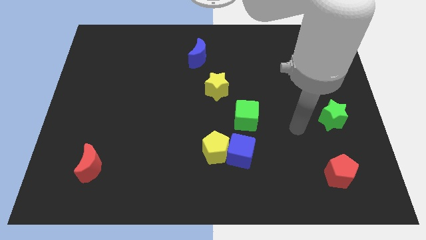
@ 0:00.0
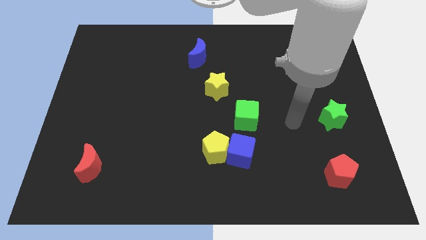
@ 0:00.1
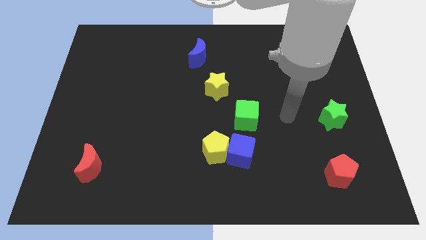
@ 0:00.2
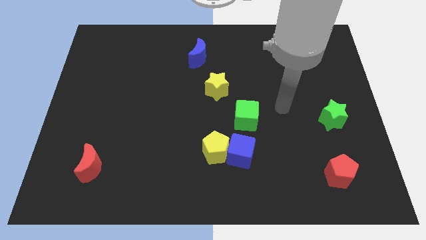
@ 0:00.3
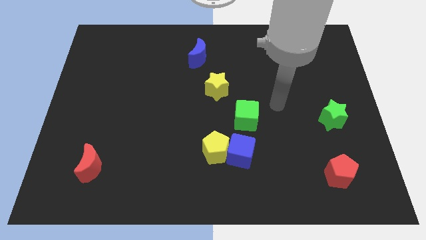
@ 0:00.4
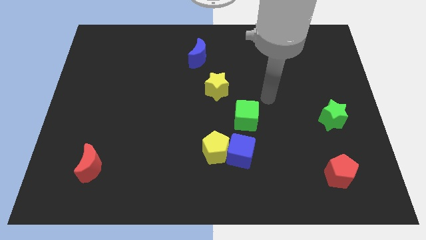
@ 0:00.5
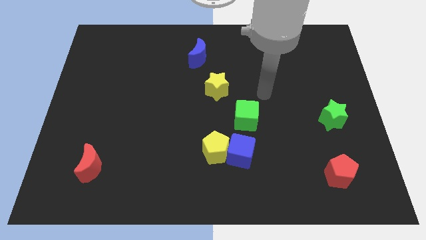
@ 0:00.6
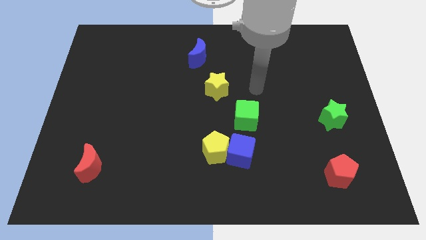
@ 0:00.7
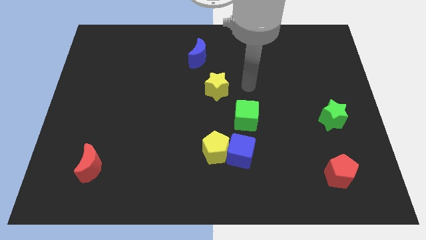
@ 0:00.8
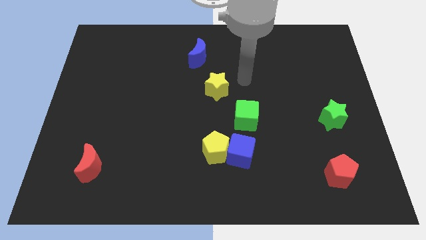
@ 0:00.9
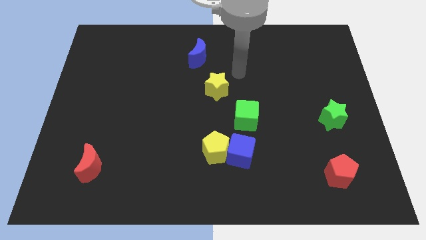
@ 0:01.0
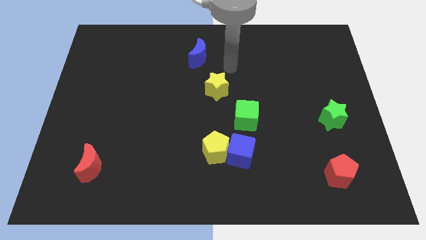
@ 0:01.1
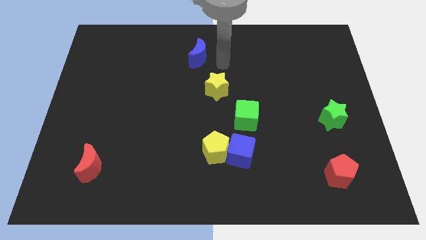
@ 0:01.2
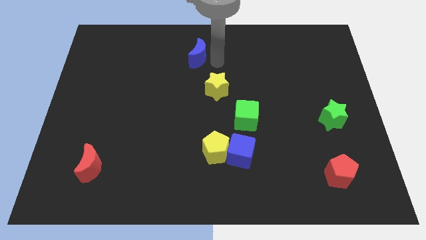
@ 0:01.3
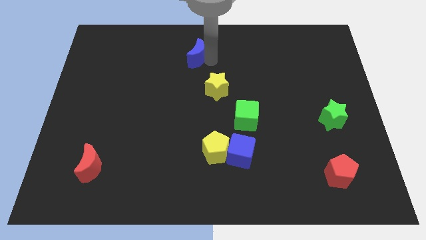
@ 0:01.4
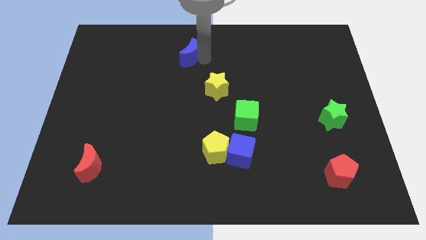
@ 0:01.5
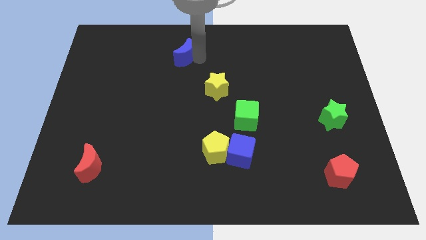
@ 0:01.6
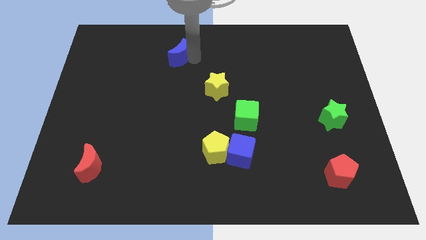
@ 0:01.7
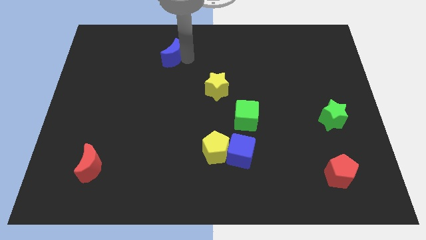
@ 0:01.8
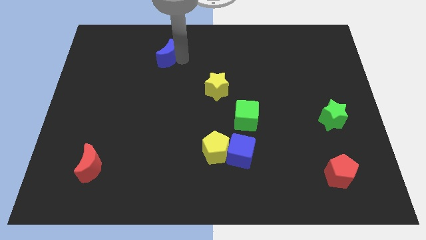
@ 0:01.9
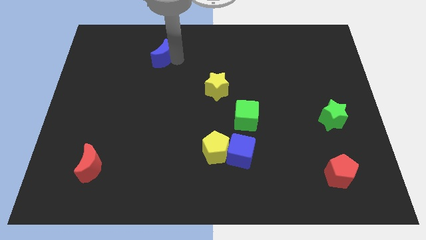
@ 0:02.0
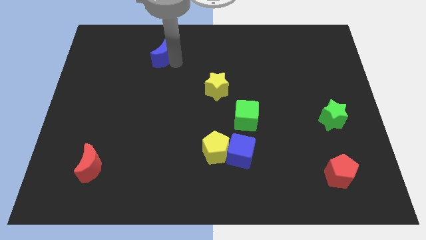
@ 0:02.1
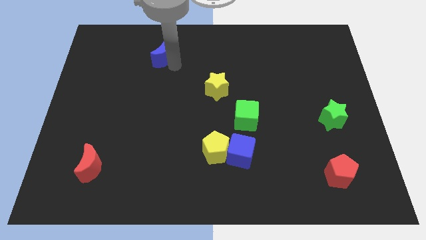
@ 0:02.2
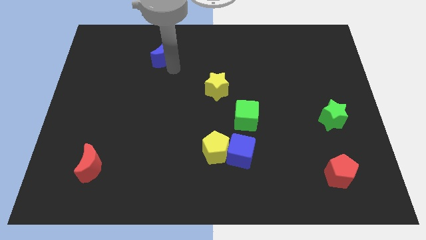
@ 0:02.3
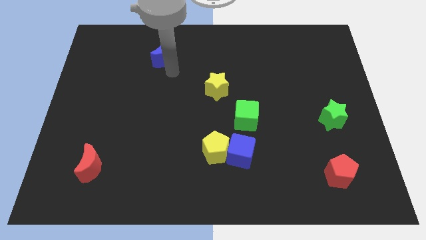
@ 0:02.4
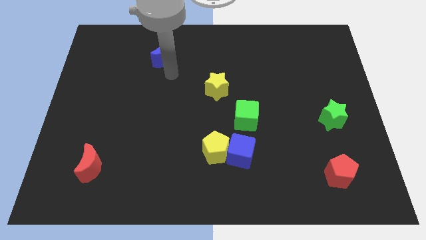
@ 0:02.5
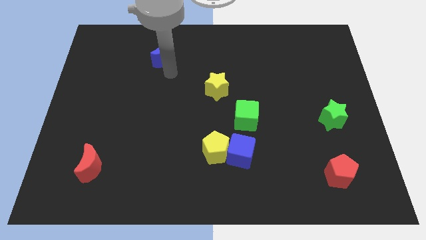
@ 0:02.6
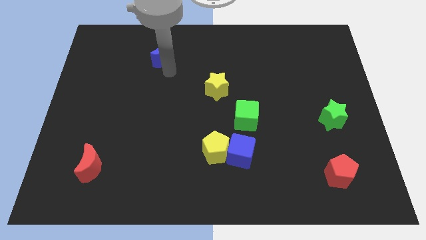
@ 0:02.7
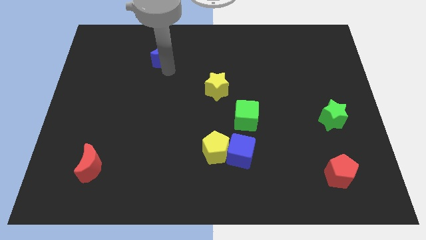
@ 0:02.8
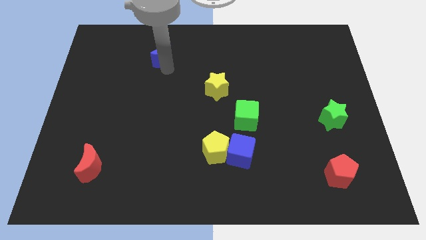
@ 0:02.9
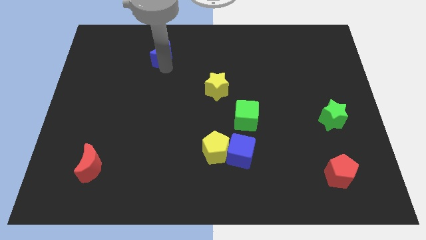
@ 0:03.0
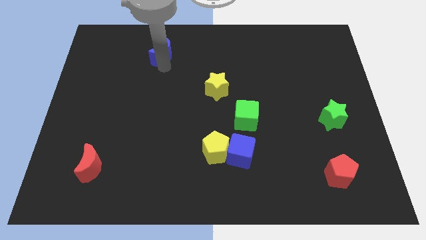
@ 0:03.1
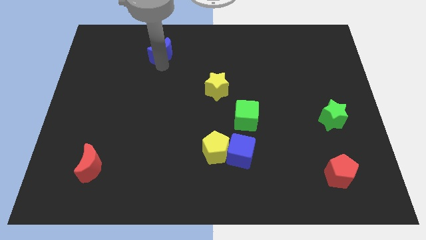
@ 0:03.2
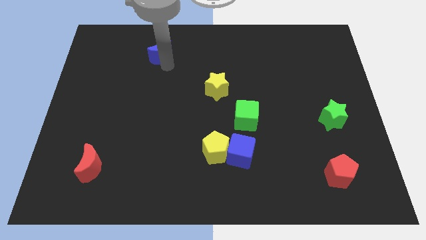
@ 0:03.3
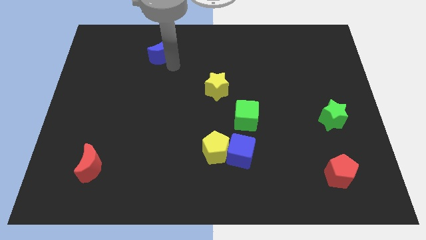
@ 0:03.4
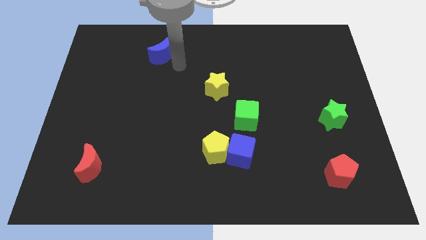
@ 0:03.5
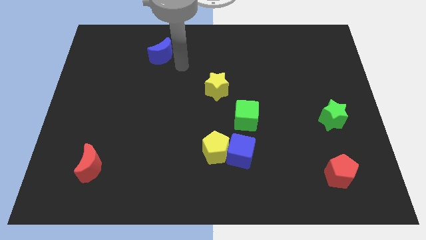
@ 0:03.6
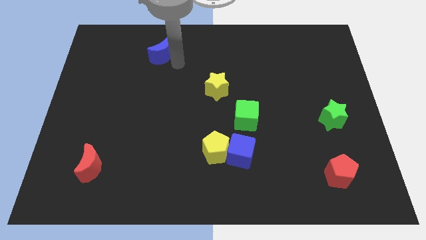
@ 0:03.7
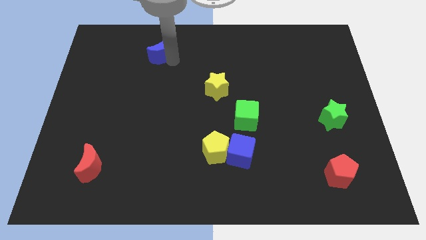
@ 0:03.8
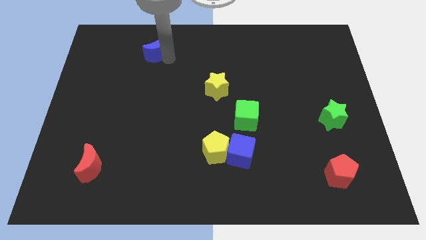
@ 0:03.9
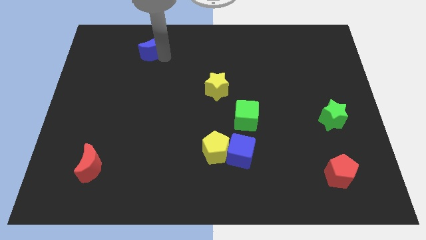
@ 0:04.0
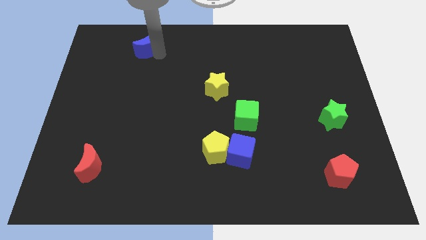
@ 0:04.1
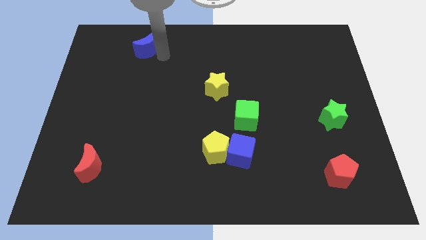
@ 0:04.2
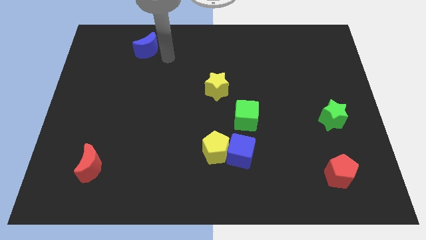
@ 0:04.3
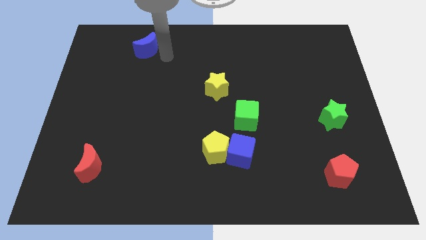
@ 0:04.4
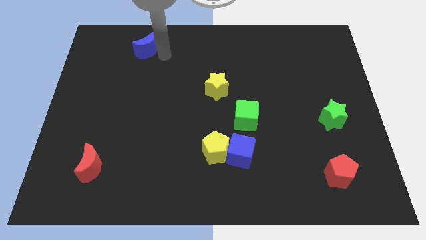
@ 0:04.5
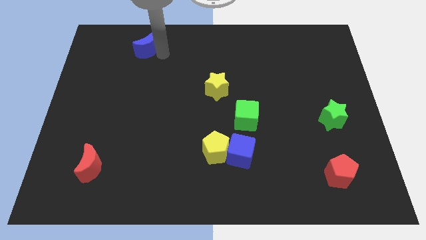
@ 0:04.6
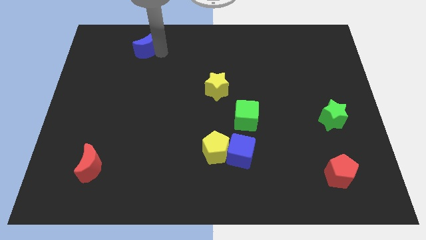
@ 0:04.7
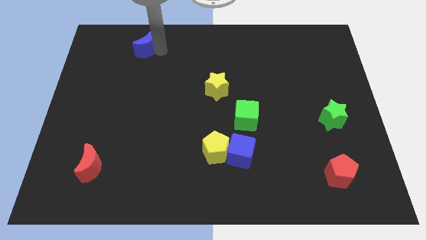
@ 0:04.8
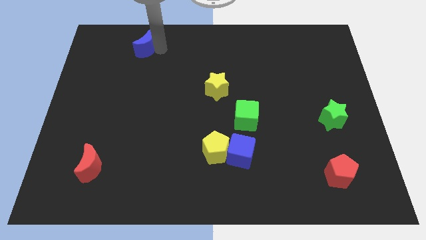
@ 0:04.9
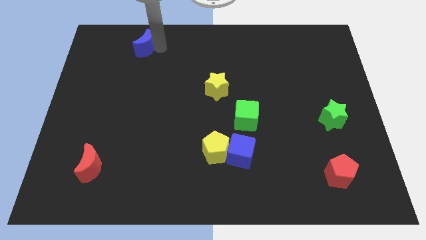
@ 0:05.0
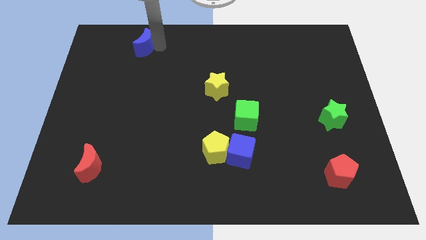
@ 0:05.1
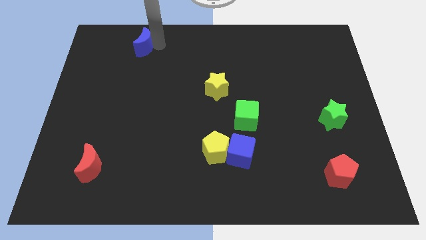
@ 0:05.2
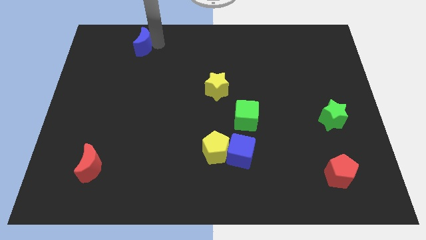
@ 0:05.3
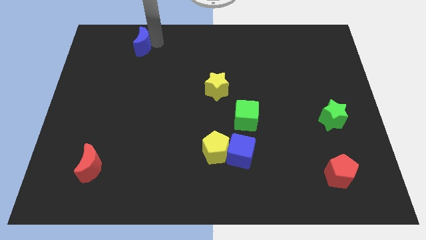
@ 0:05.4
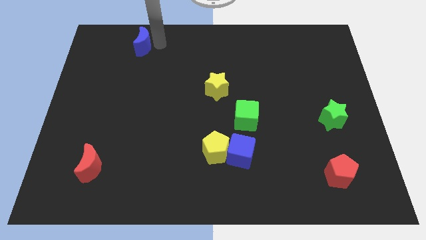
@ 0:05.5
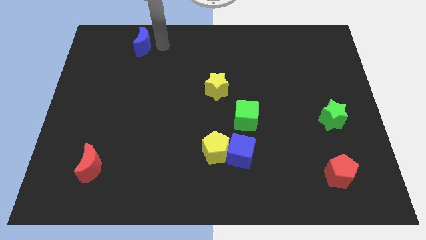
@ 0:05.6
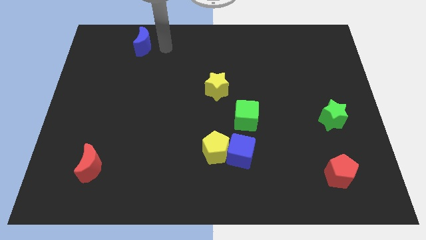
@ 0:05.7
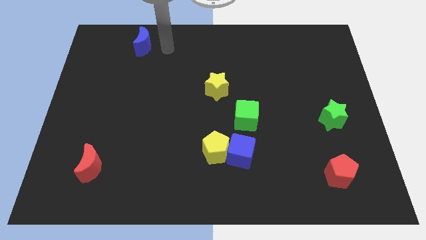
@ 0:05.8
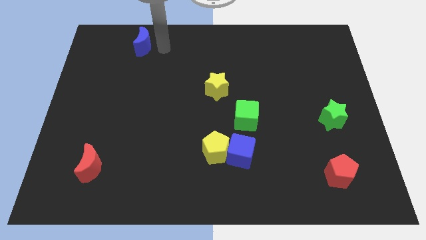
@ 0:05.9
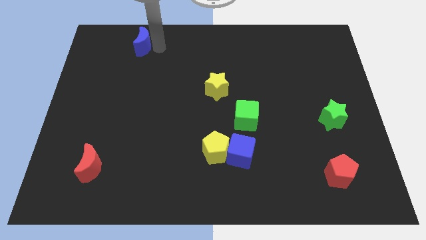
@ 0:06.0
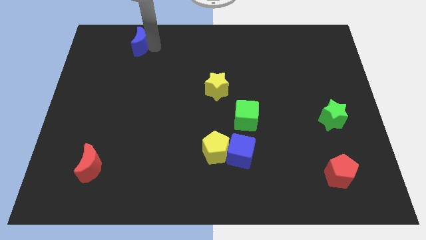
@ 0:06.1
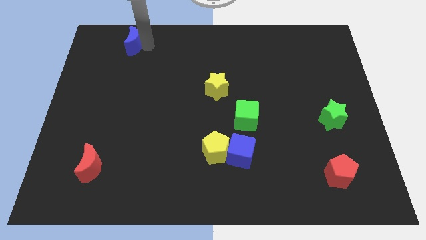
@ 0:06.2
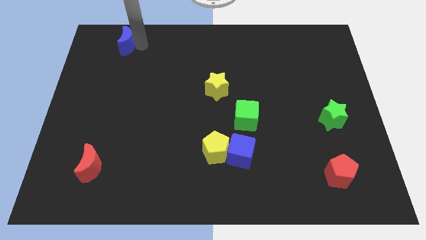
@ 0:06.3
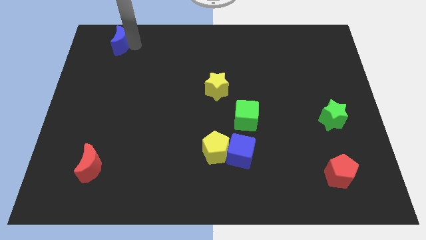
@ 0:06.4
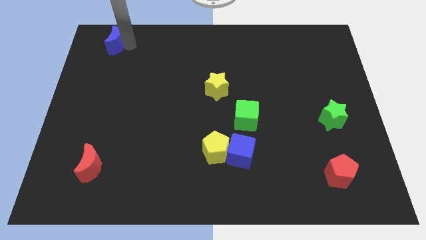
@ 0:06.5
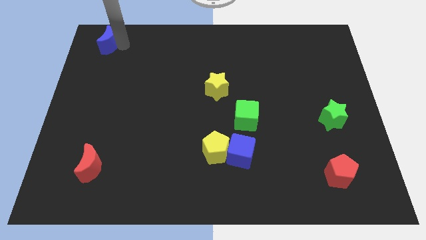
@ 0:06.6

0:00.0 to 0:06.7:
push the blue moon to the top left of the board
